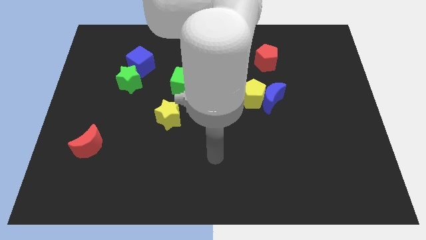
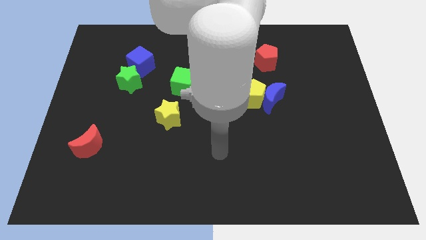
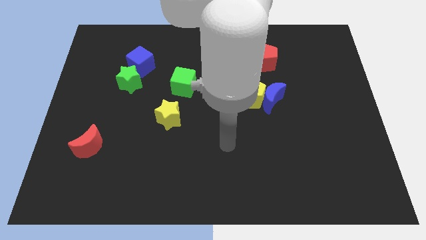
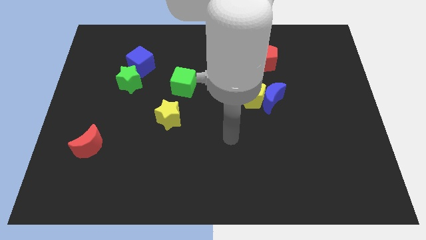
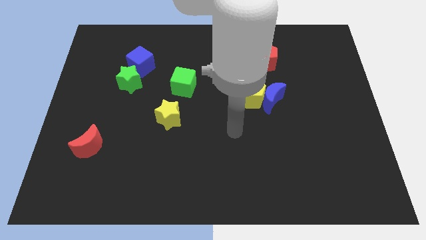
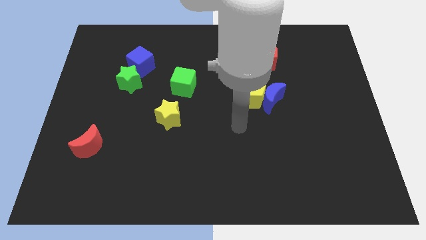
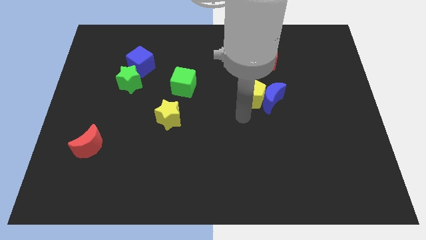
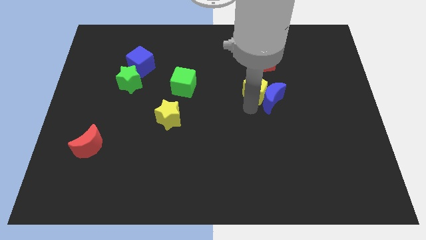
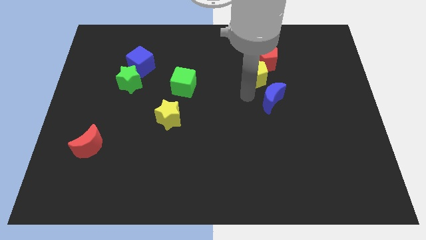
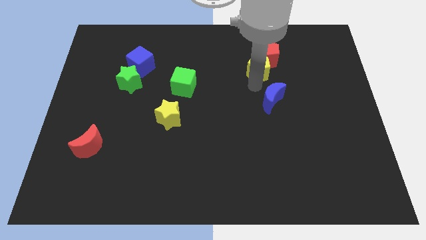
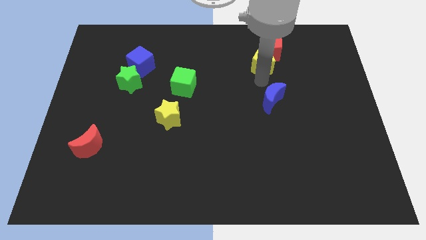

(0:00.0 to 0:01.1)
move the blue moon away from the yellow pentagon

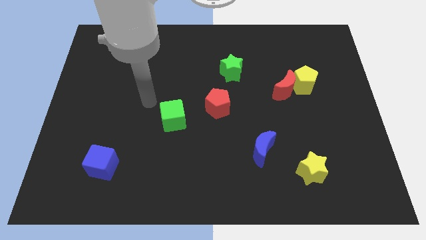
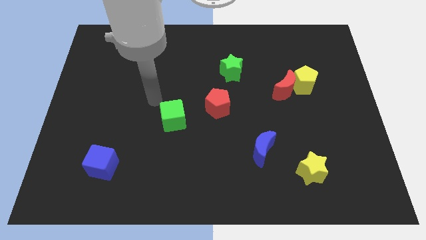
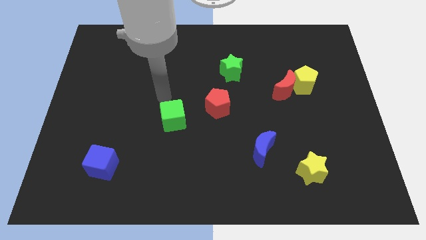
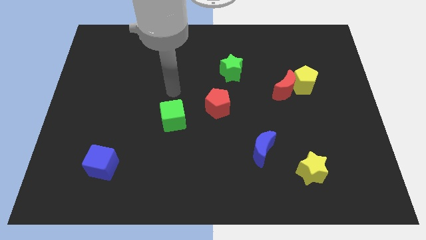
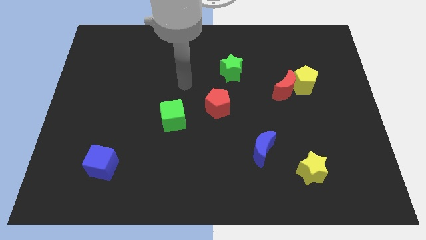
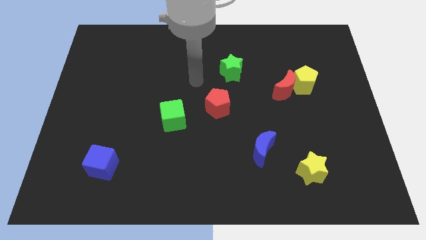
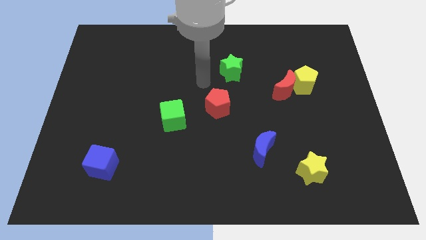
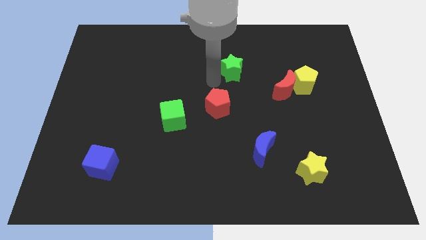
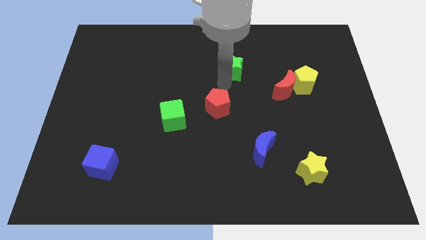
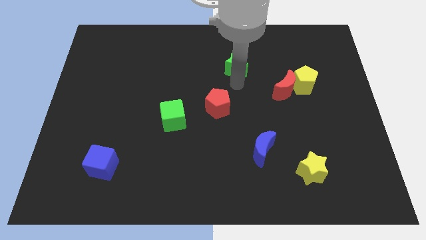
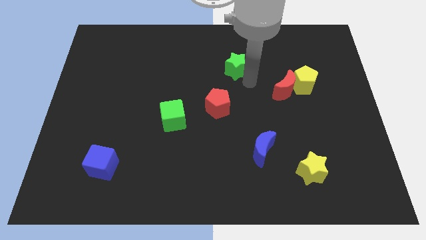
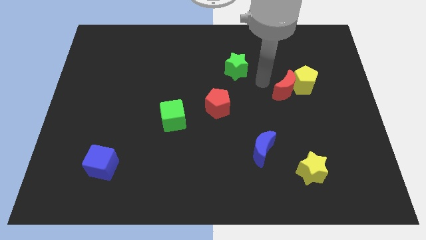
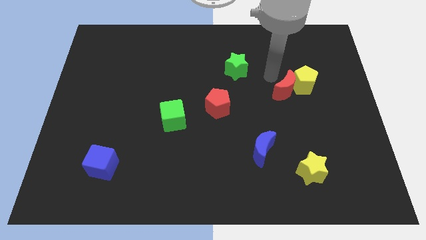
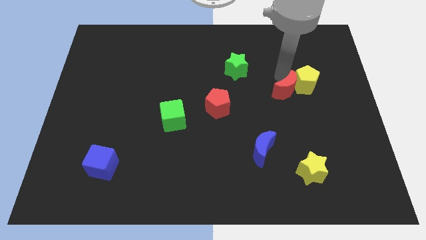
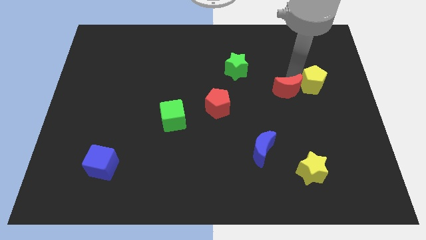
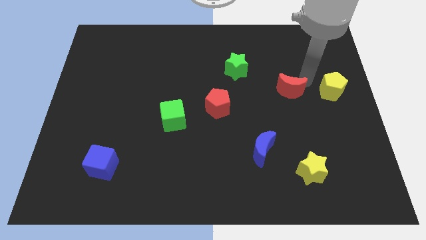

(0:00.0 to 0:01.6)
pull the red moon apart from the yellow pentagon

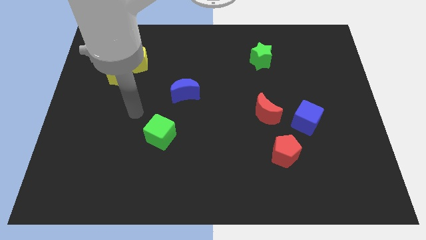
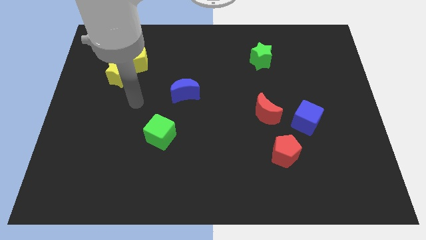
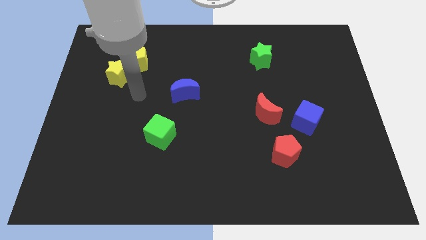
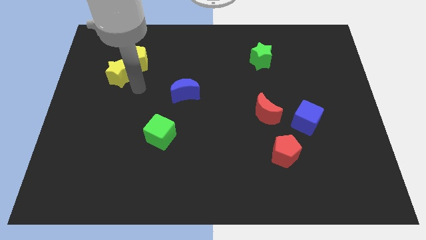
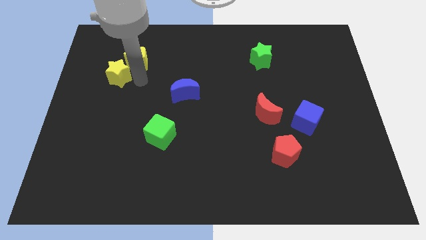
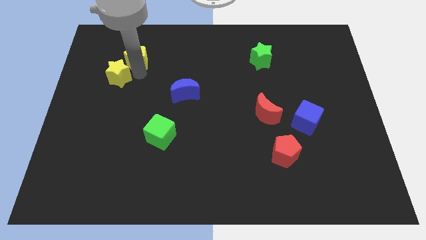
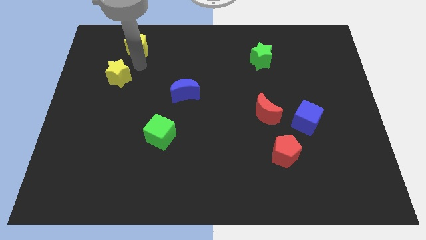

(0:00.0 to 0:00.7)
separate the yellow star from the yellow pentagon

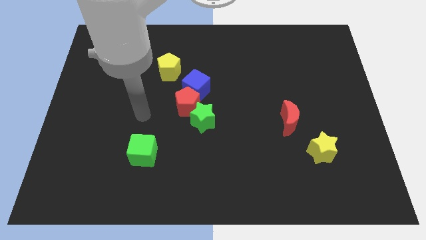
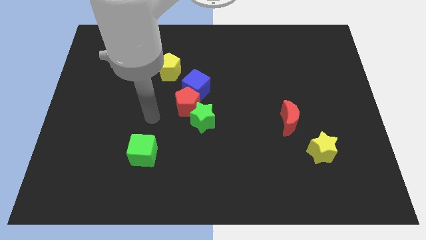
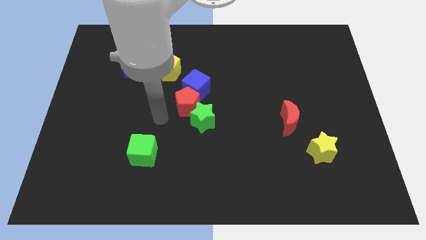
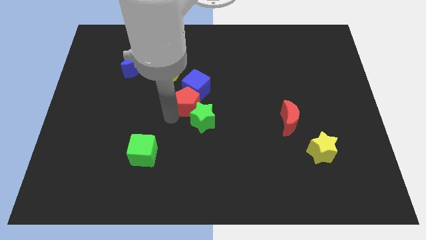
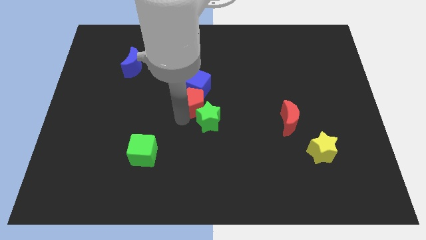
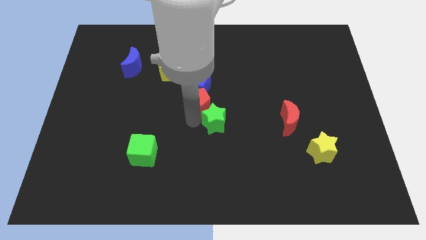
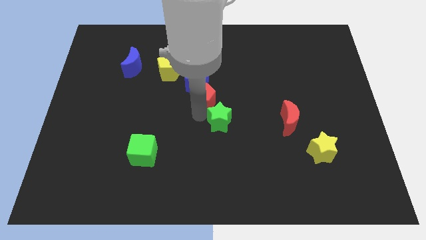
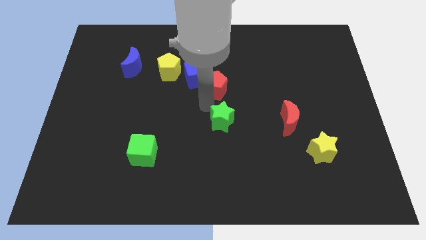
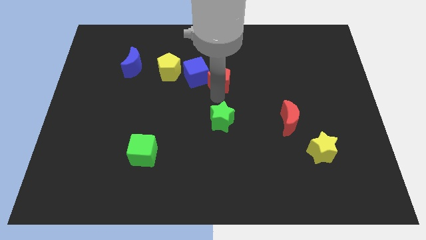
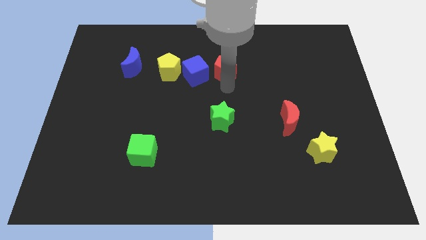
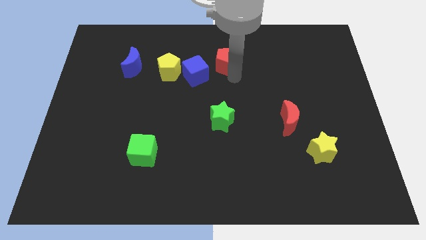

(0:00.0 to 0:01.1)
separate the red pentagon from the blue cube and green star

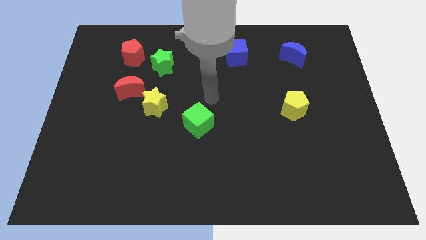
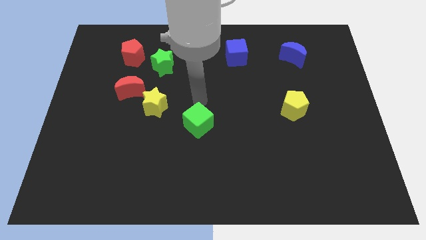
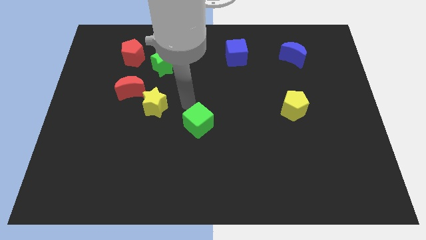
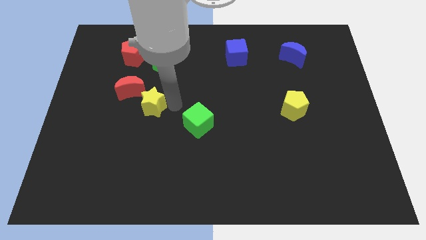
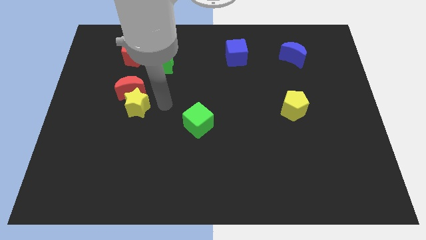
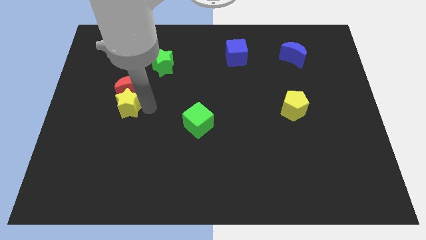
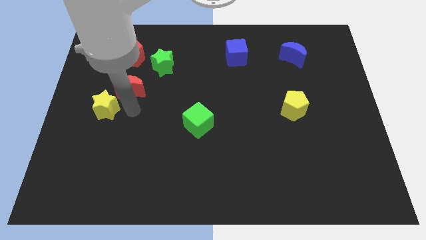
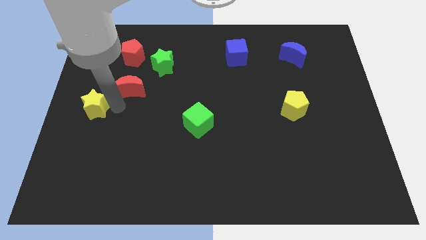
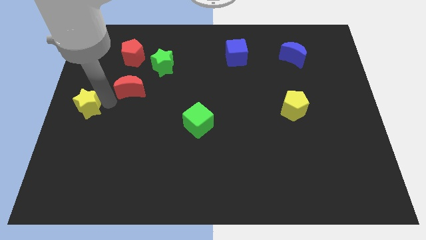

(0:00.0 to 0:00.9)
move the red moon away from the yellow star

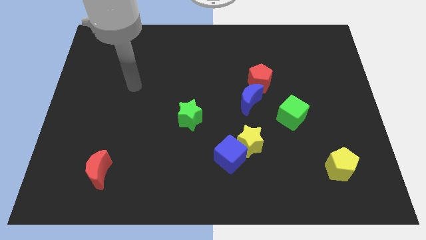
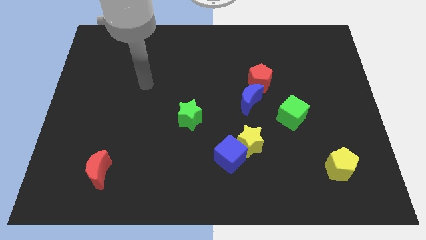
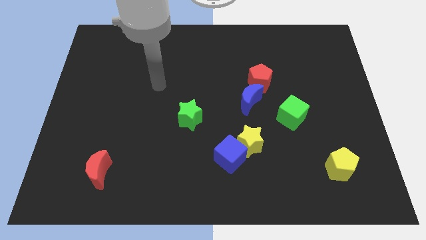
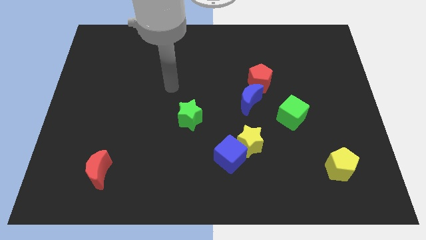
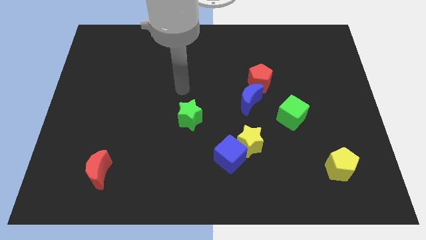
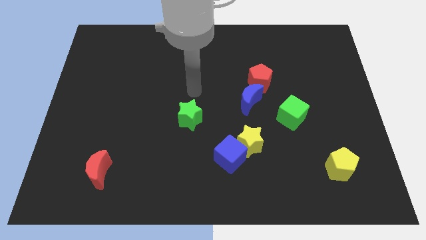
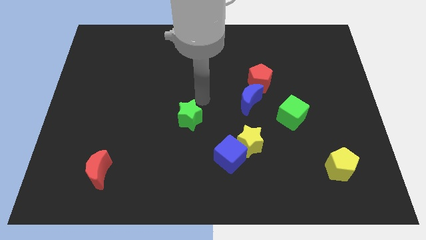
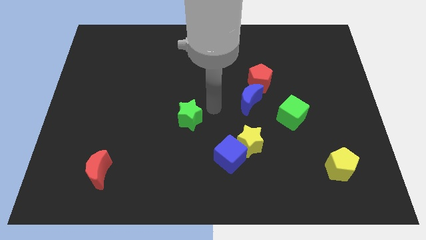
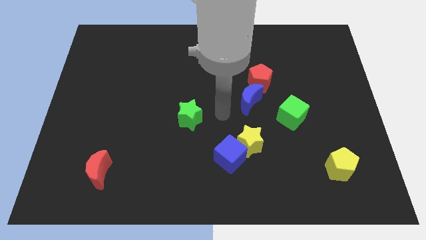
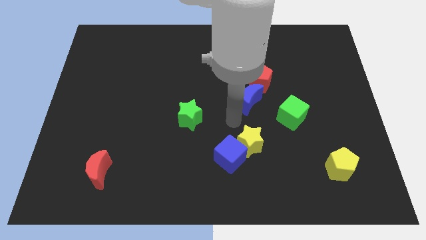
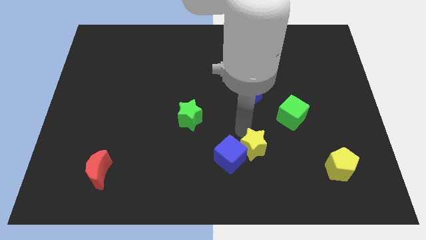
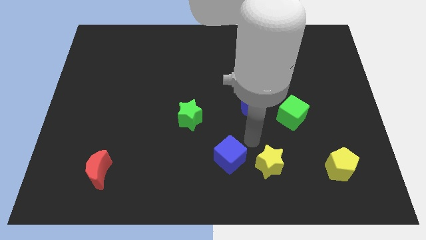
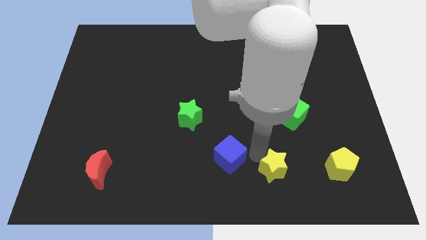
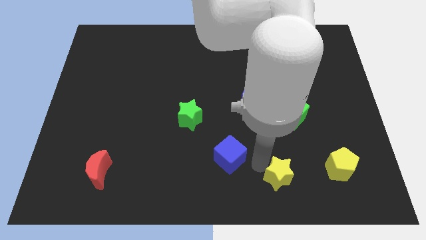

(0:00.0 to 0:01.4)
separate the blue cube from the yellow star

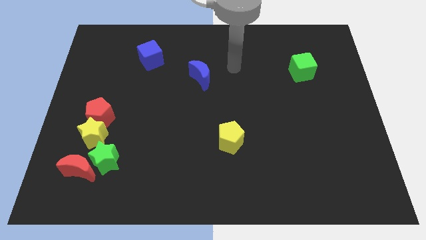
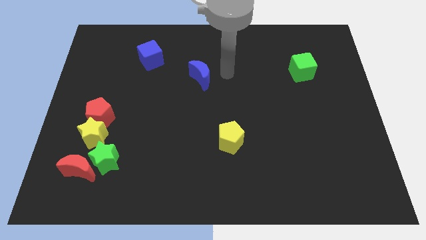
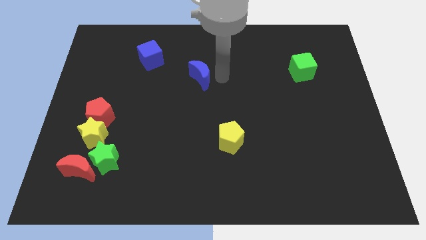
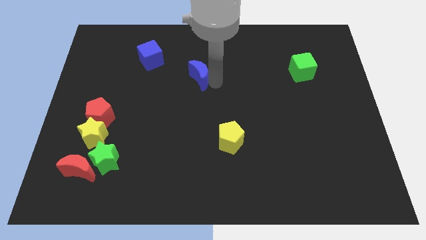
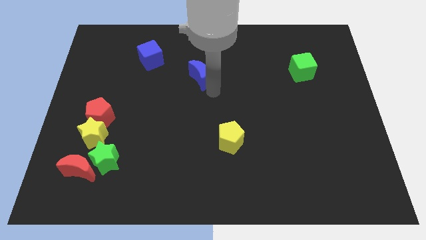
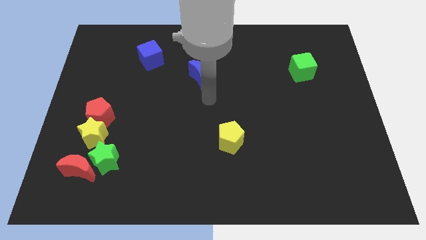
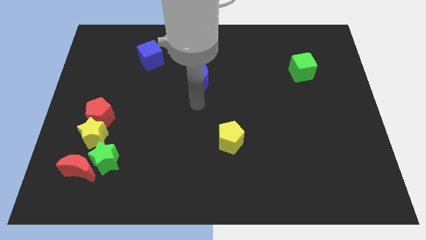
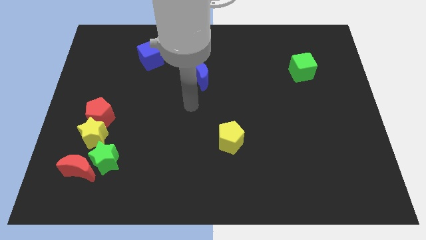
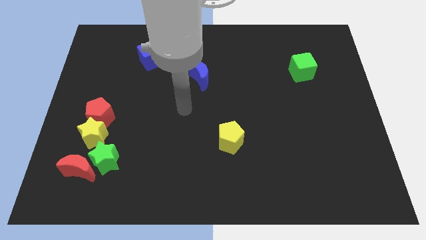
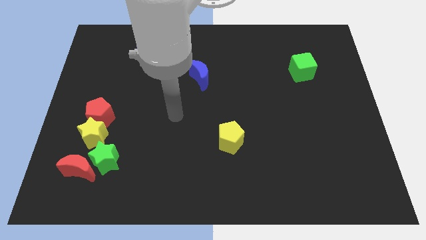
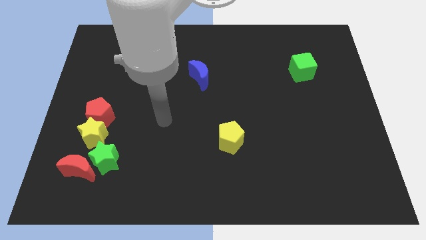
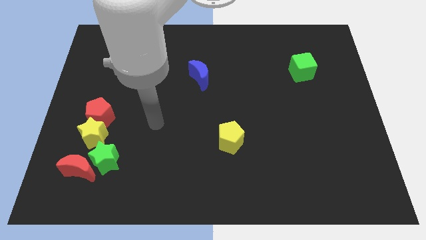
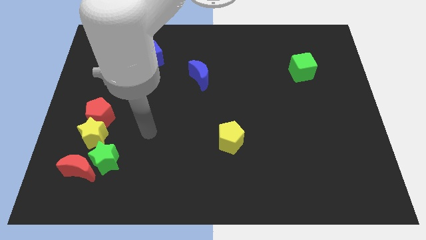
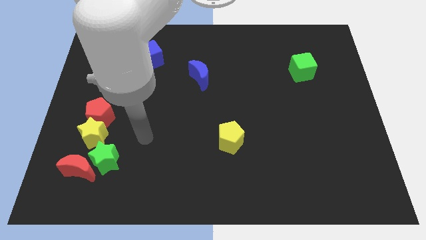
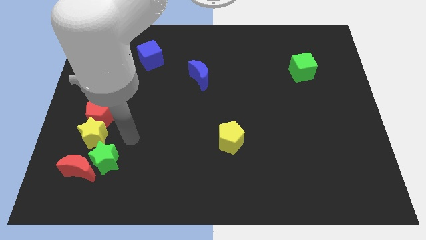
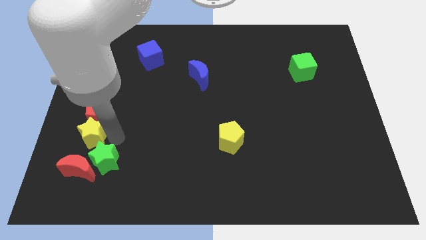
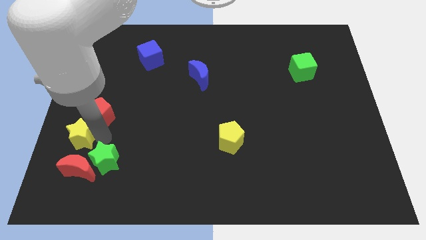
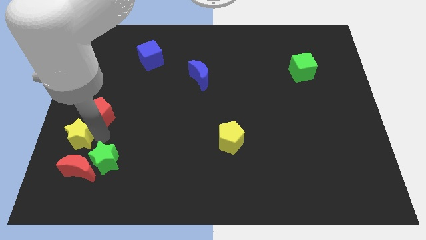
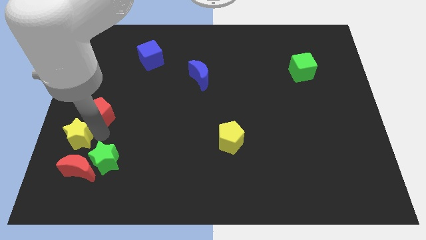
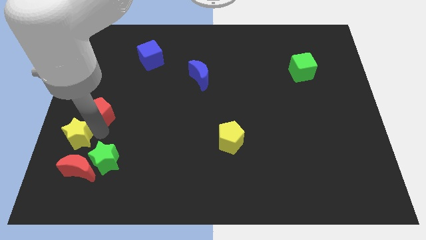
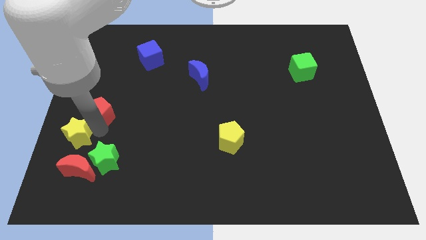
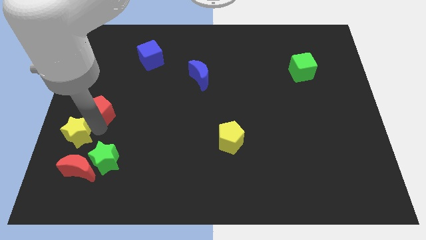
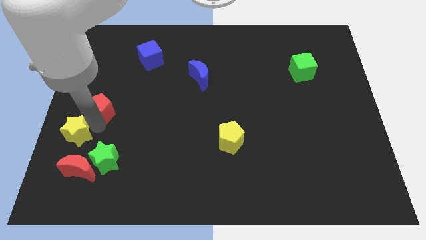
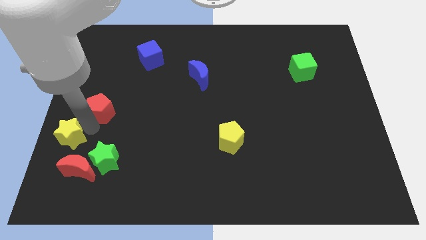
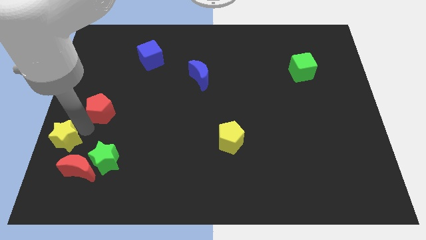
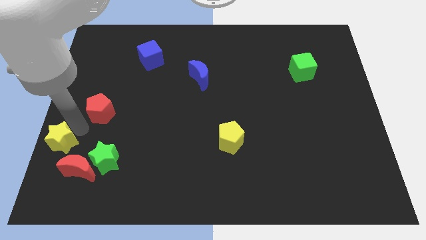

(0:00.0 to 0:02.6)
pull the red pentagon apart from the yellow star
